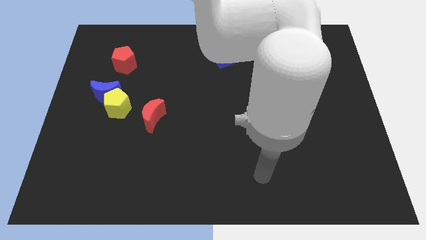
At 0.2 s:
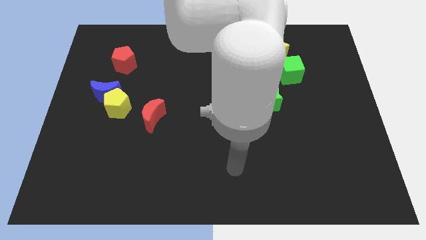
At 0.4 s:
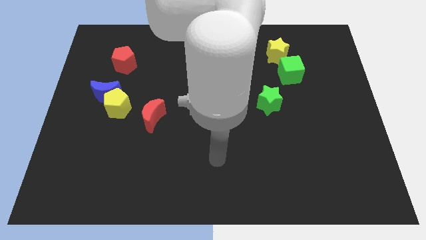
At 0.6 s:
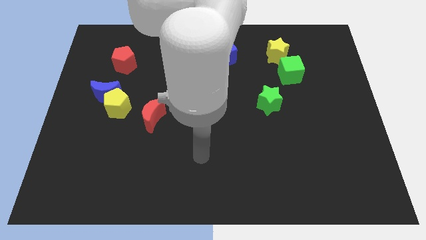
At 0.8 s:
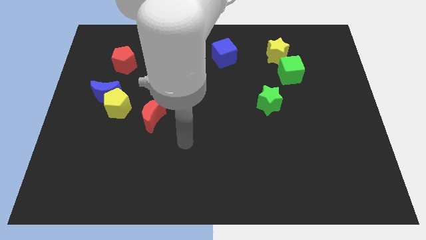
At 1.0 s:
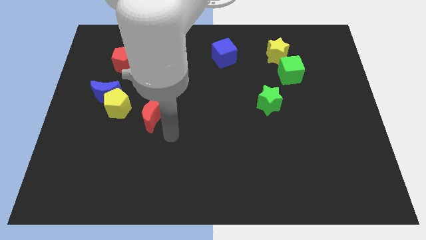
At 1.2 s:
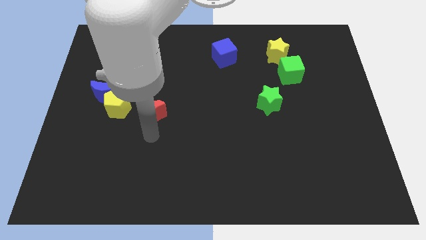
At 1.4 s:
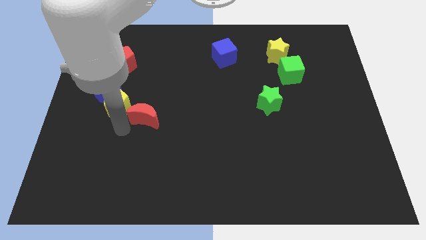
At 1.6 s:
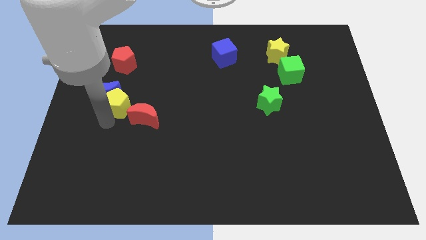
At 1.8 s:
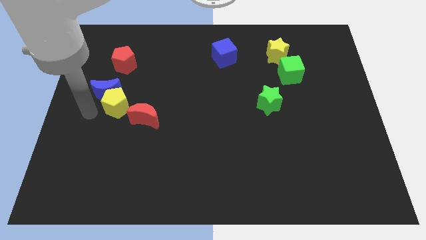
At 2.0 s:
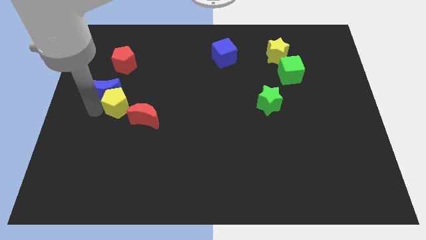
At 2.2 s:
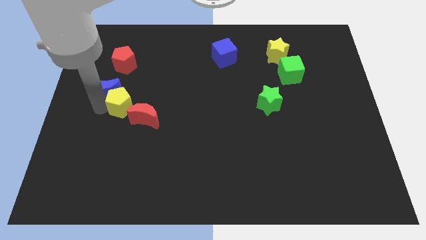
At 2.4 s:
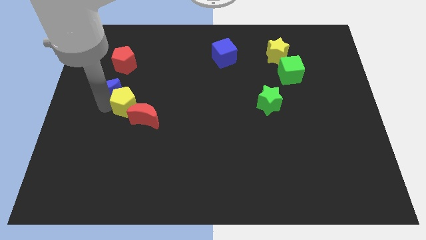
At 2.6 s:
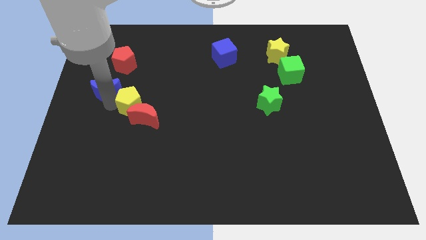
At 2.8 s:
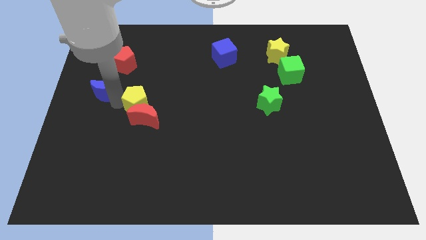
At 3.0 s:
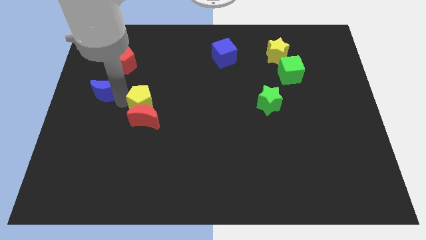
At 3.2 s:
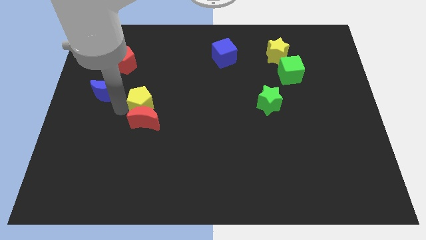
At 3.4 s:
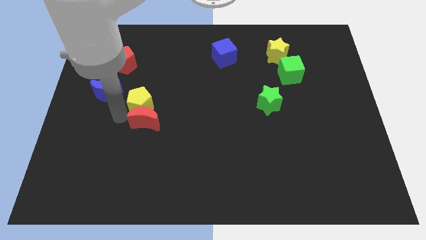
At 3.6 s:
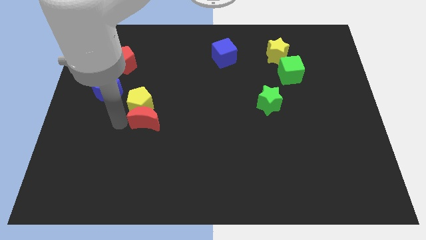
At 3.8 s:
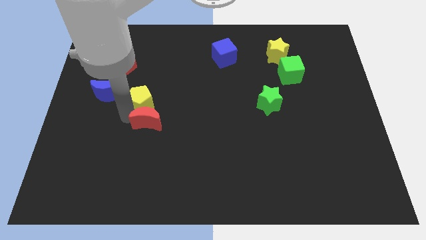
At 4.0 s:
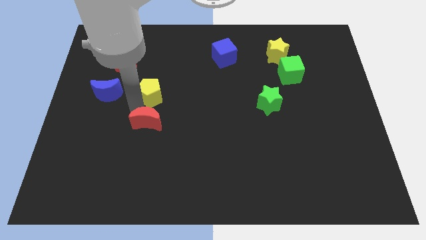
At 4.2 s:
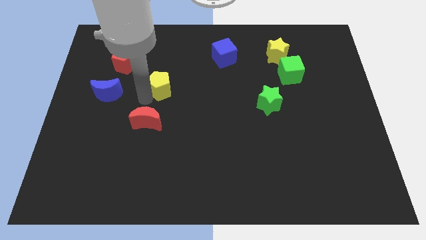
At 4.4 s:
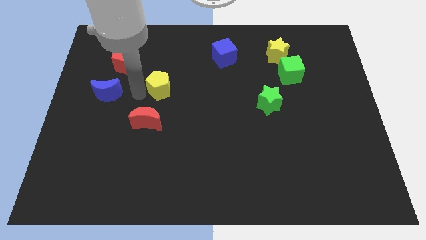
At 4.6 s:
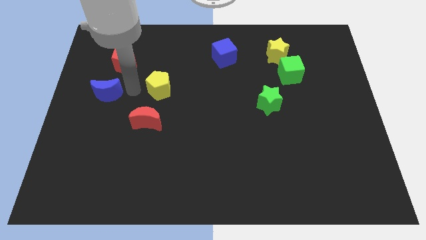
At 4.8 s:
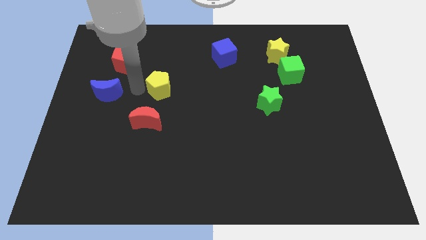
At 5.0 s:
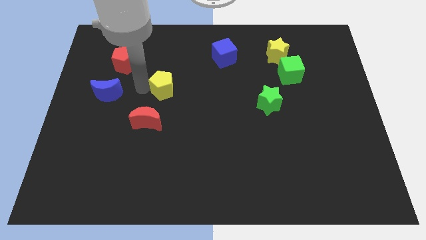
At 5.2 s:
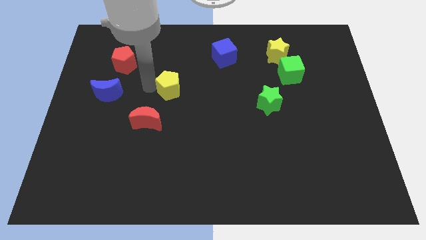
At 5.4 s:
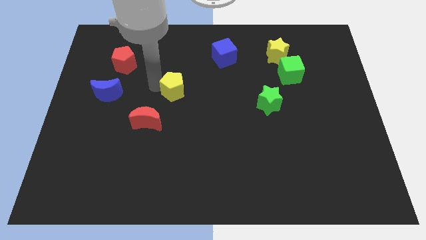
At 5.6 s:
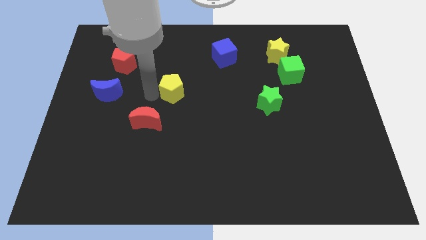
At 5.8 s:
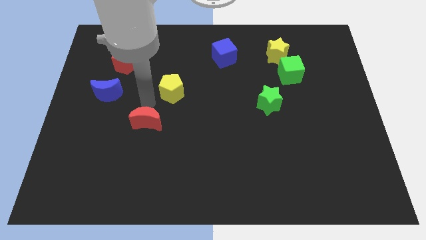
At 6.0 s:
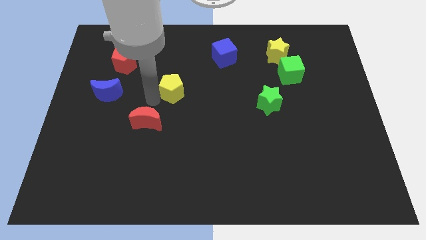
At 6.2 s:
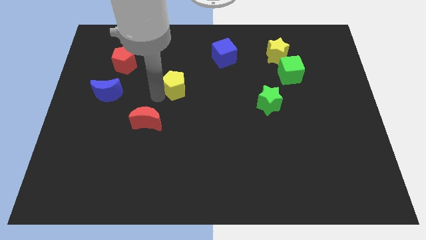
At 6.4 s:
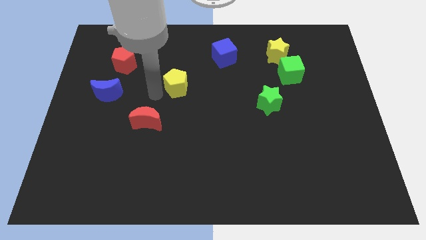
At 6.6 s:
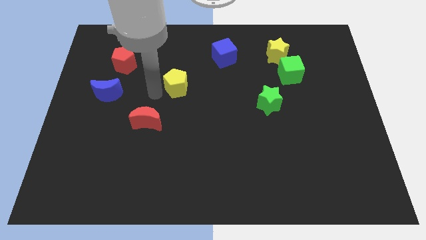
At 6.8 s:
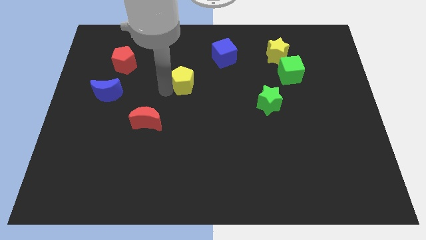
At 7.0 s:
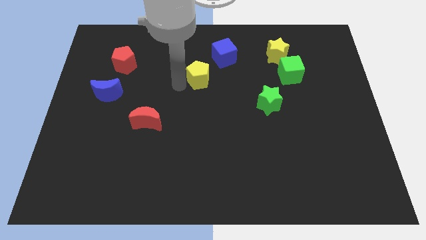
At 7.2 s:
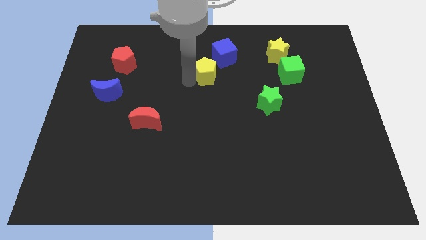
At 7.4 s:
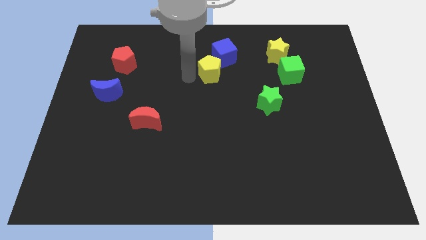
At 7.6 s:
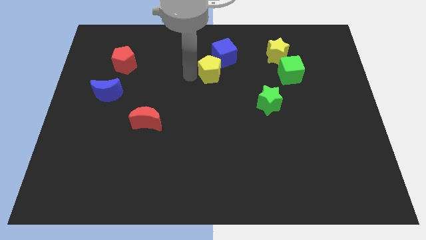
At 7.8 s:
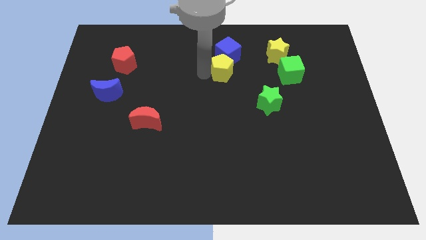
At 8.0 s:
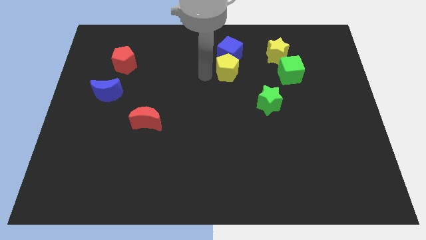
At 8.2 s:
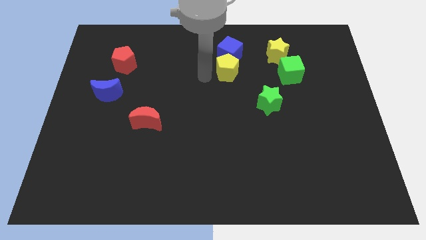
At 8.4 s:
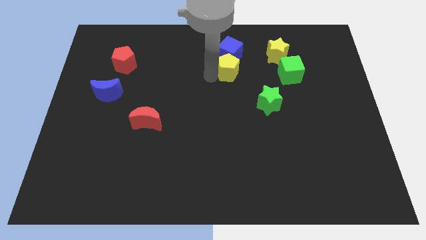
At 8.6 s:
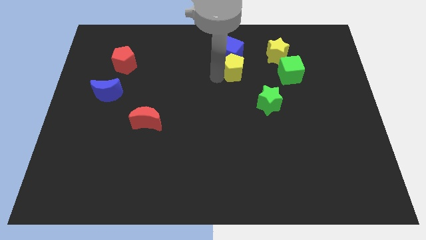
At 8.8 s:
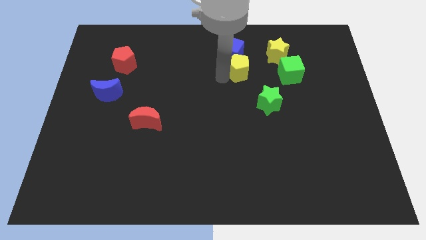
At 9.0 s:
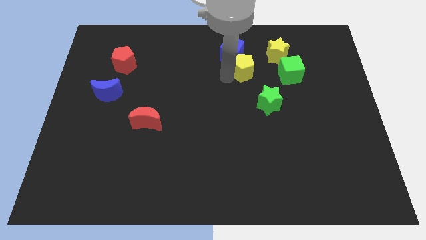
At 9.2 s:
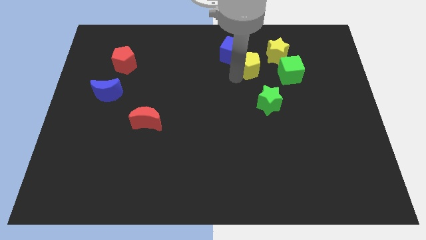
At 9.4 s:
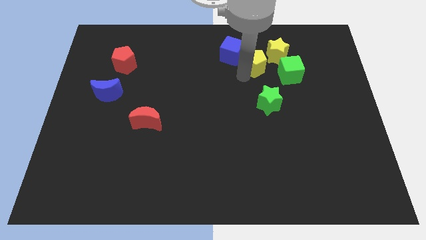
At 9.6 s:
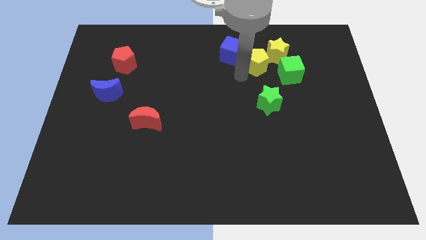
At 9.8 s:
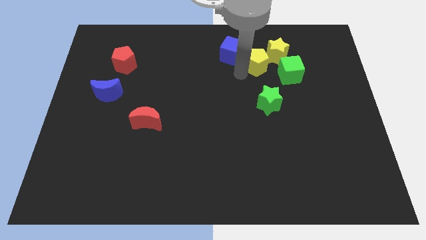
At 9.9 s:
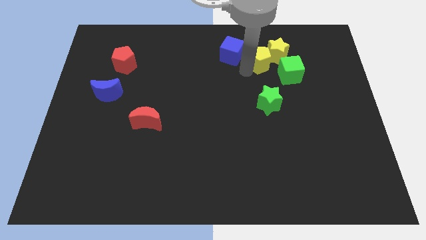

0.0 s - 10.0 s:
move the yellow pentagon close to the yellow star

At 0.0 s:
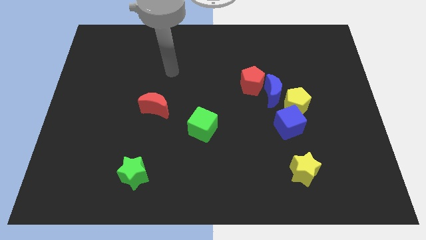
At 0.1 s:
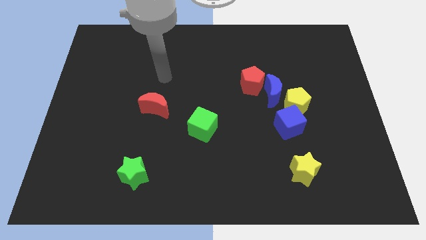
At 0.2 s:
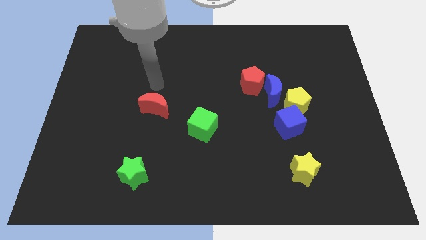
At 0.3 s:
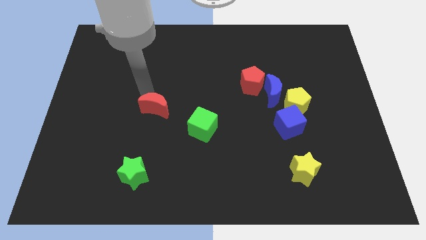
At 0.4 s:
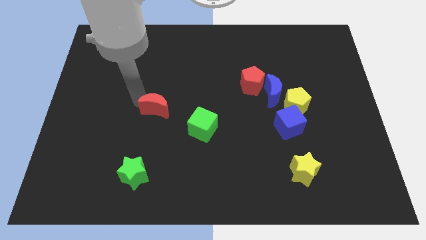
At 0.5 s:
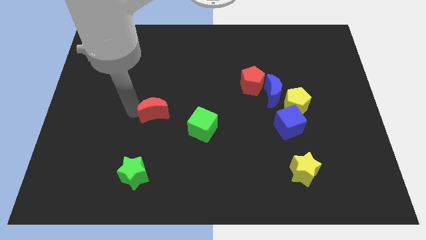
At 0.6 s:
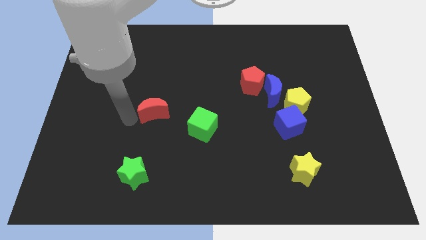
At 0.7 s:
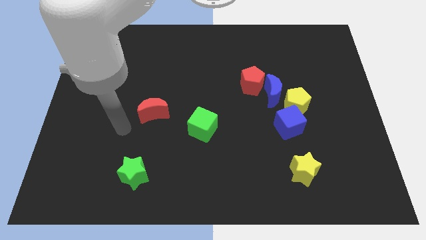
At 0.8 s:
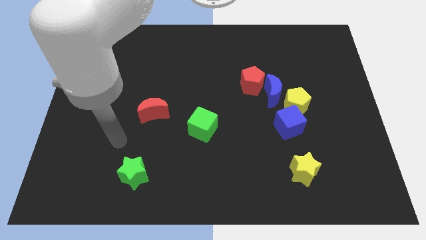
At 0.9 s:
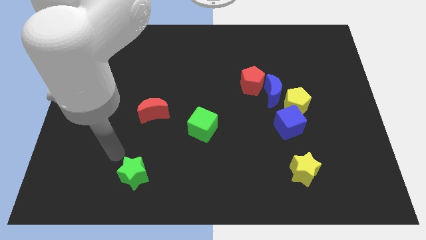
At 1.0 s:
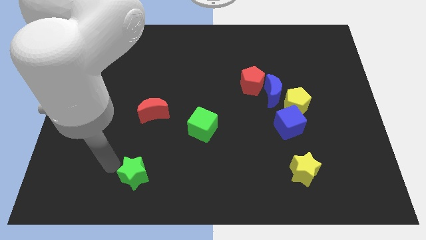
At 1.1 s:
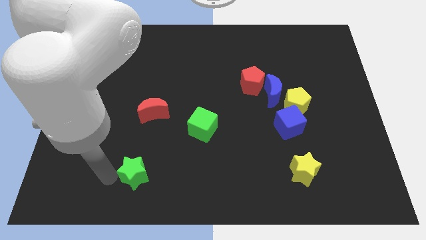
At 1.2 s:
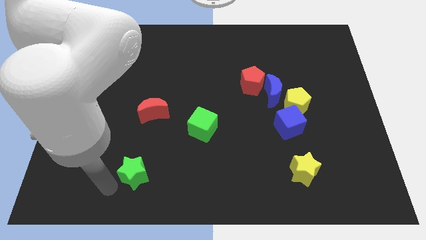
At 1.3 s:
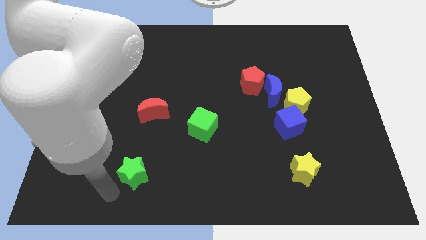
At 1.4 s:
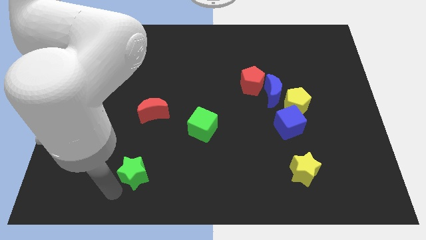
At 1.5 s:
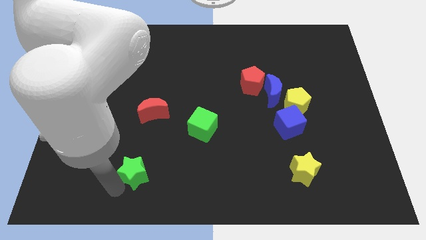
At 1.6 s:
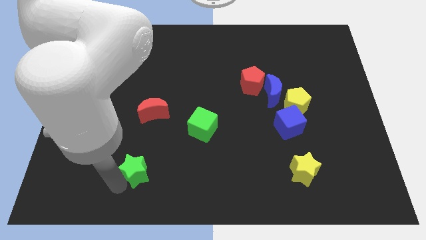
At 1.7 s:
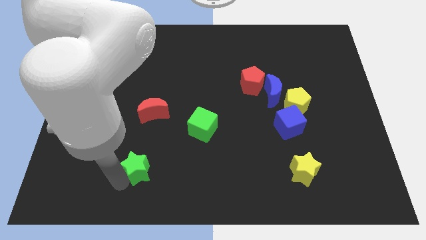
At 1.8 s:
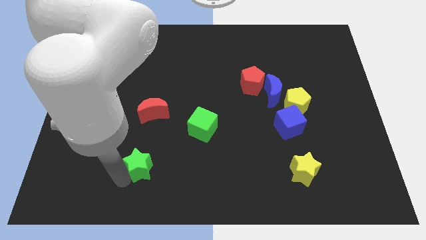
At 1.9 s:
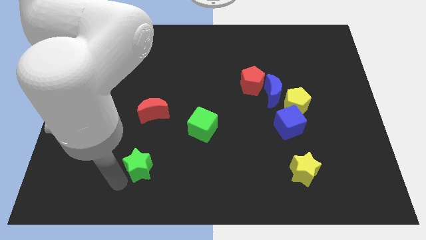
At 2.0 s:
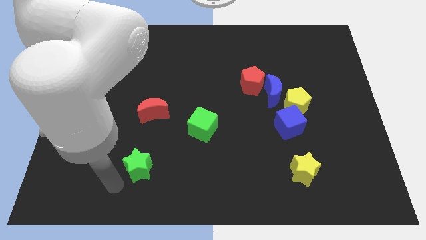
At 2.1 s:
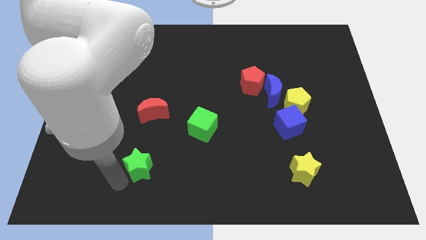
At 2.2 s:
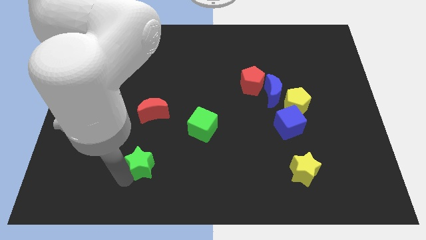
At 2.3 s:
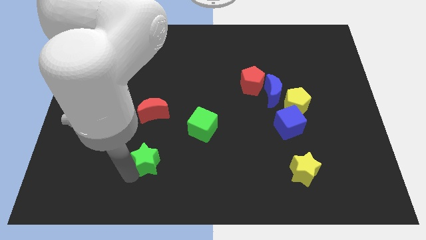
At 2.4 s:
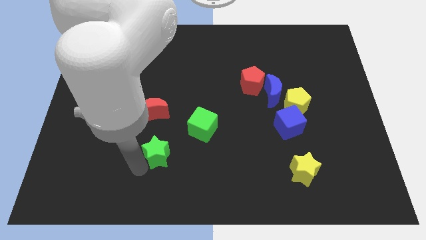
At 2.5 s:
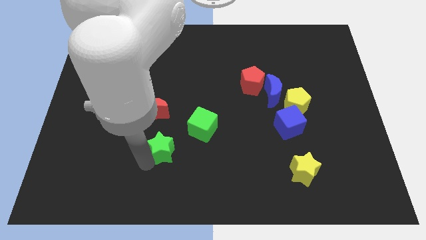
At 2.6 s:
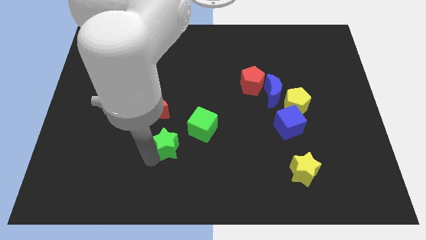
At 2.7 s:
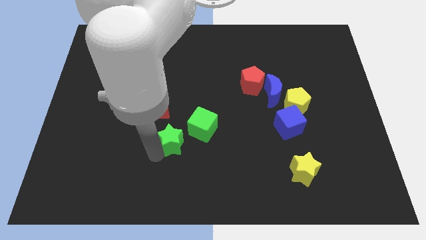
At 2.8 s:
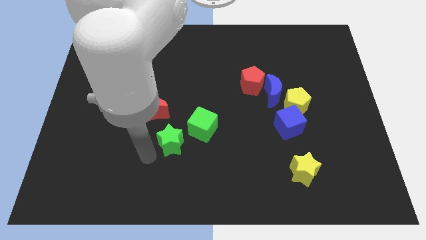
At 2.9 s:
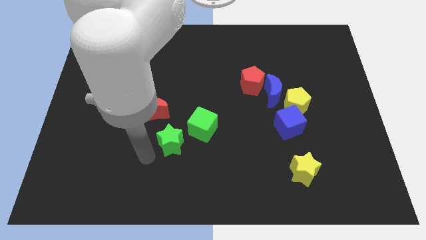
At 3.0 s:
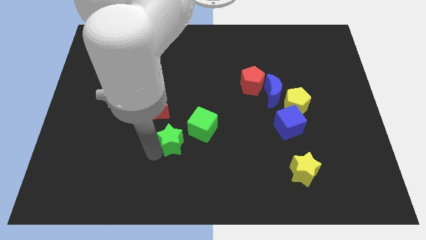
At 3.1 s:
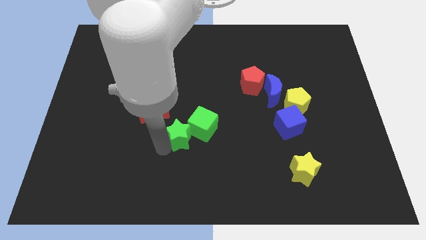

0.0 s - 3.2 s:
slide the green star to the green cube
